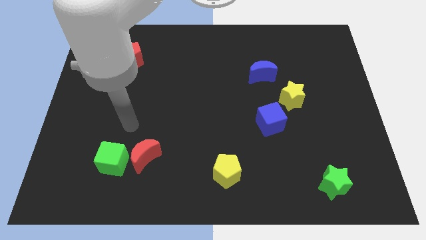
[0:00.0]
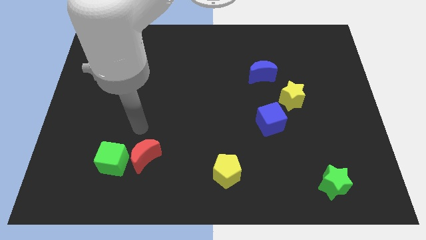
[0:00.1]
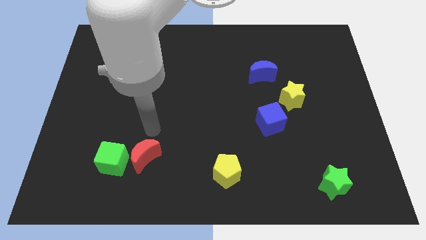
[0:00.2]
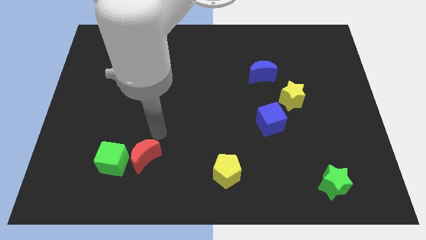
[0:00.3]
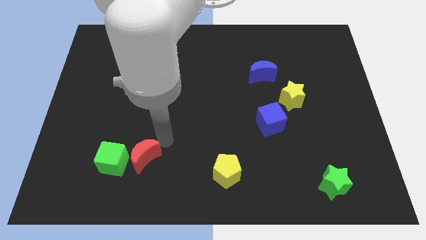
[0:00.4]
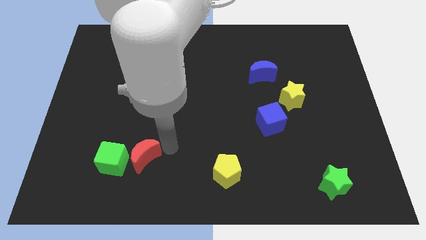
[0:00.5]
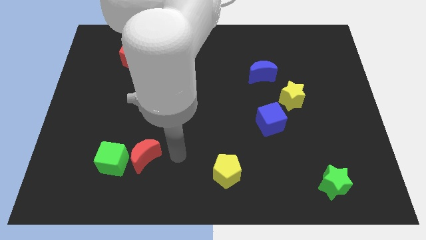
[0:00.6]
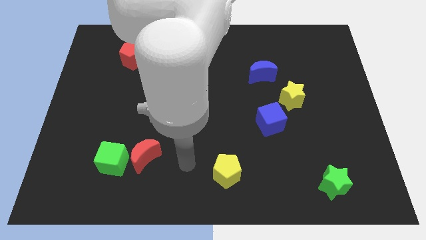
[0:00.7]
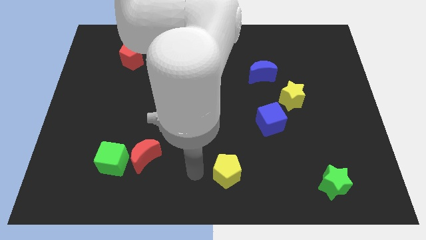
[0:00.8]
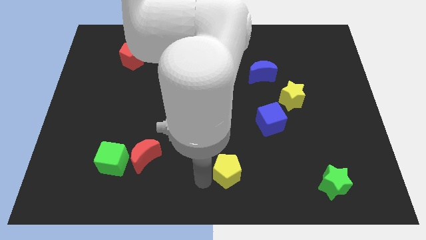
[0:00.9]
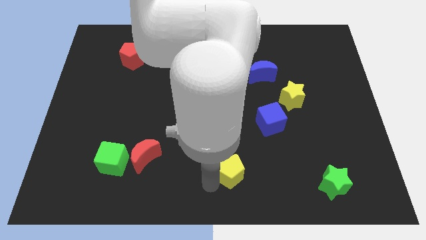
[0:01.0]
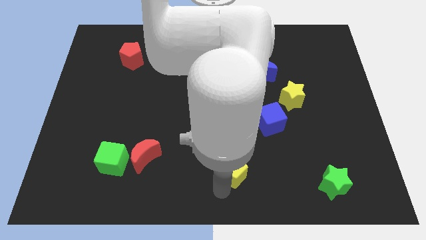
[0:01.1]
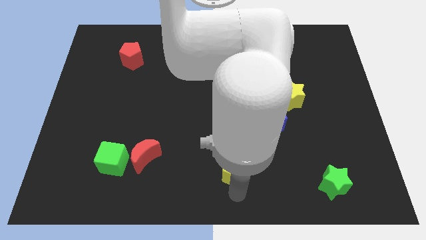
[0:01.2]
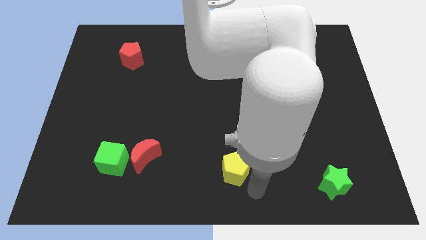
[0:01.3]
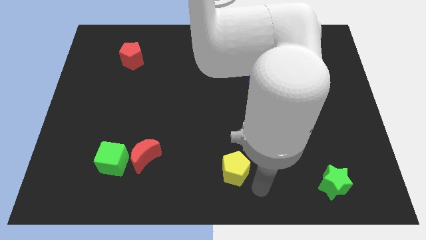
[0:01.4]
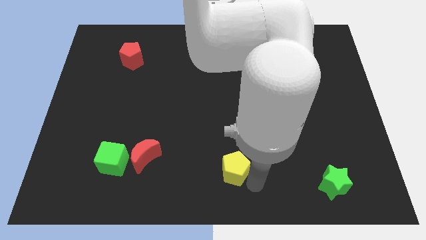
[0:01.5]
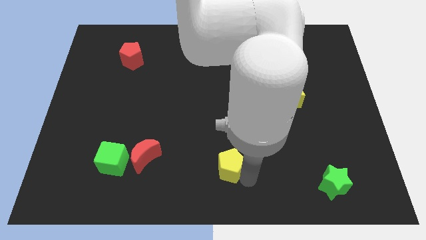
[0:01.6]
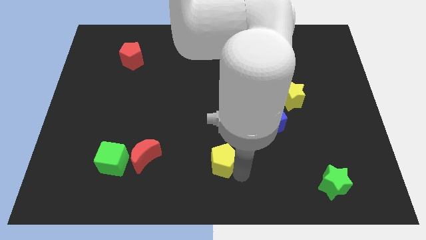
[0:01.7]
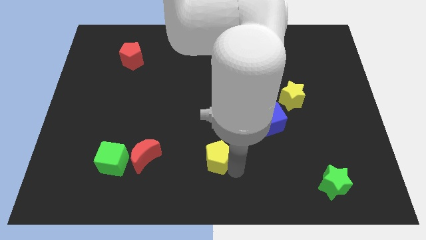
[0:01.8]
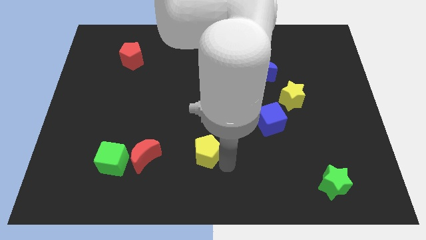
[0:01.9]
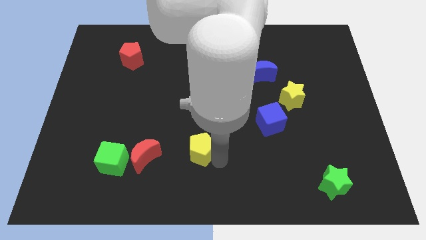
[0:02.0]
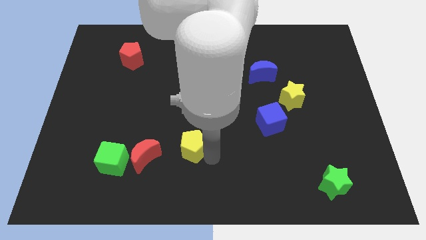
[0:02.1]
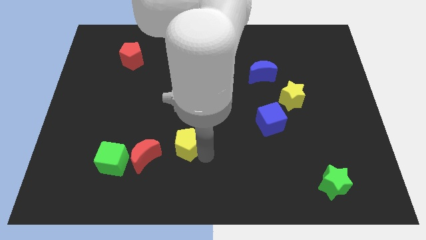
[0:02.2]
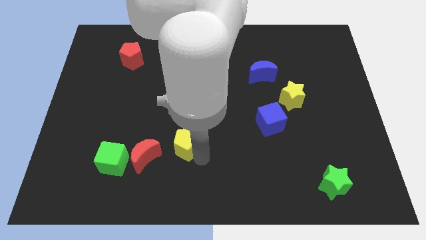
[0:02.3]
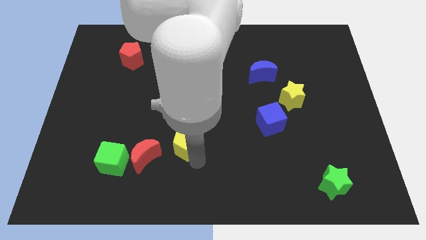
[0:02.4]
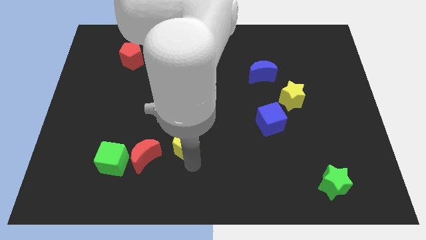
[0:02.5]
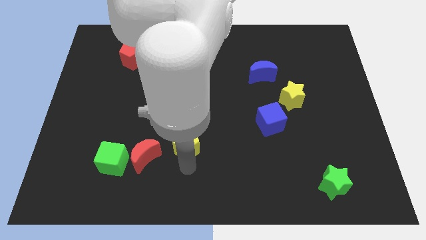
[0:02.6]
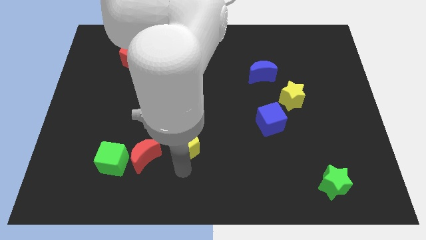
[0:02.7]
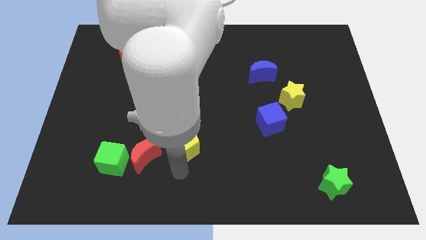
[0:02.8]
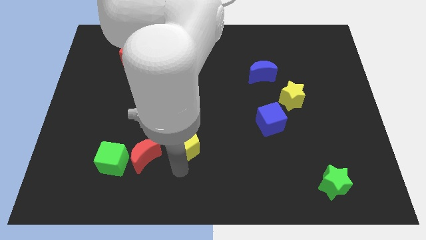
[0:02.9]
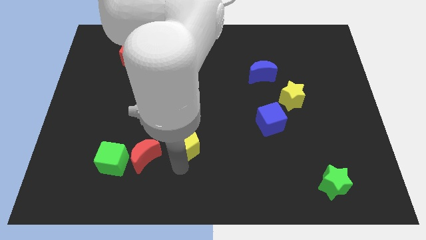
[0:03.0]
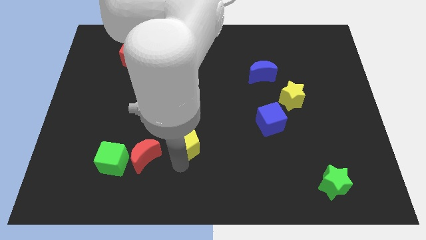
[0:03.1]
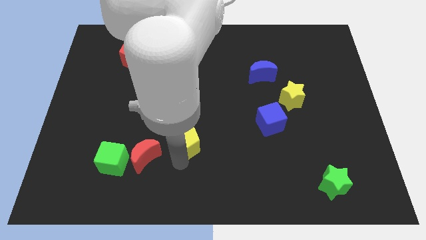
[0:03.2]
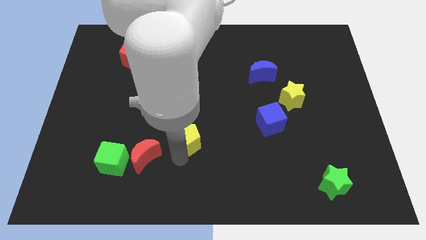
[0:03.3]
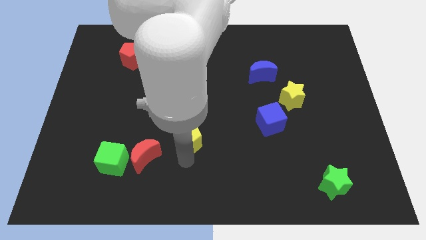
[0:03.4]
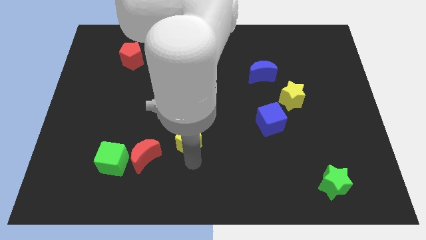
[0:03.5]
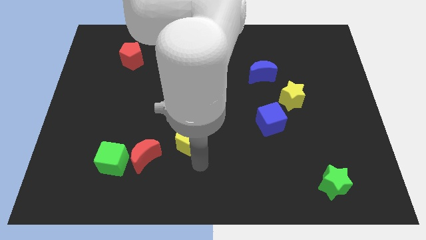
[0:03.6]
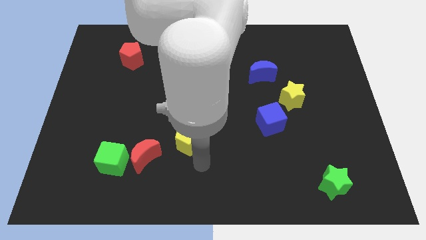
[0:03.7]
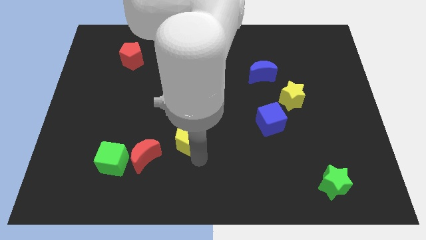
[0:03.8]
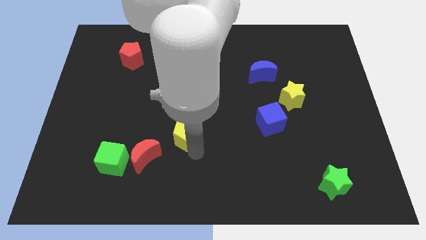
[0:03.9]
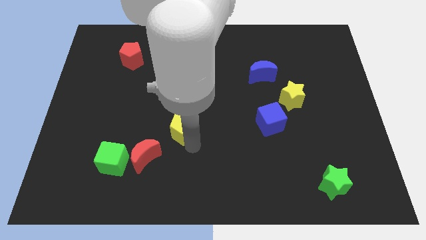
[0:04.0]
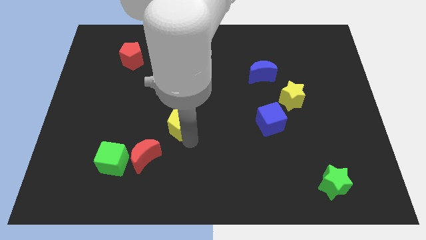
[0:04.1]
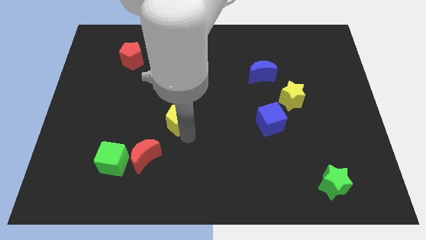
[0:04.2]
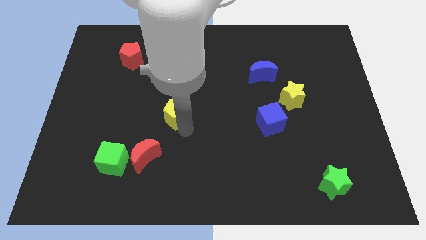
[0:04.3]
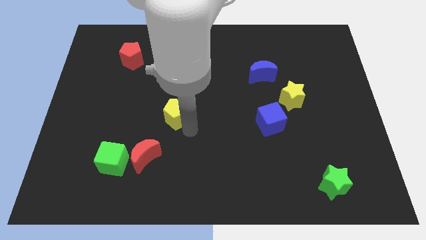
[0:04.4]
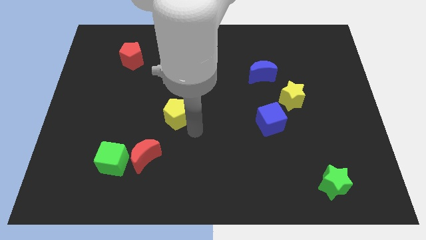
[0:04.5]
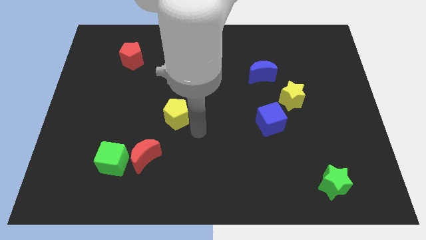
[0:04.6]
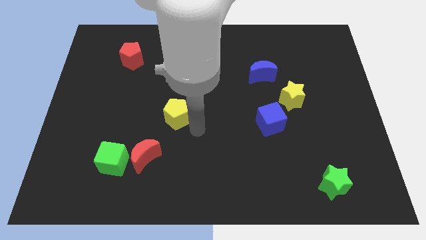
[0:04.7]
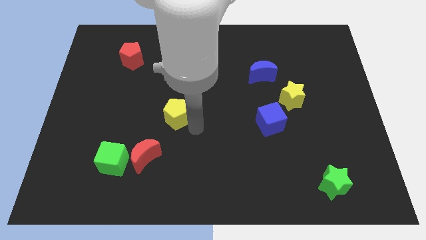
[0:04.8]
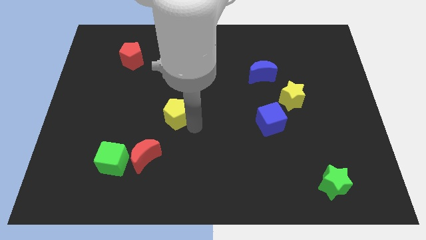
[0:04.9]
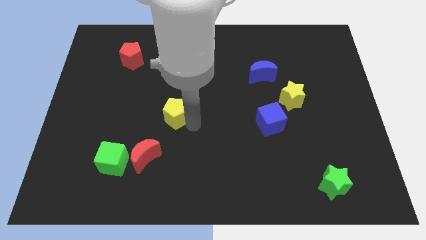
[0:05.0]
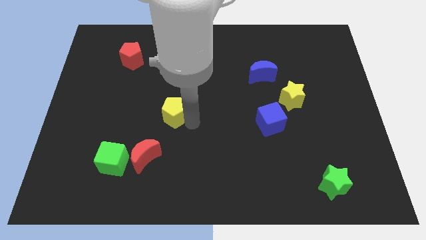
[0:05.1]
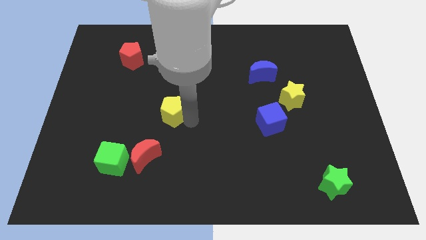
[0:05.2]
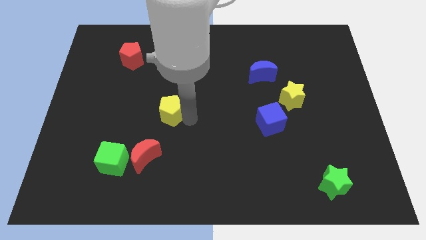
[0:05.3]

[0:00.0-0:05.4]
push the yellow pentagon up and to the left

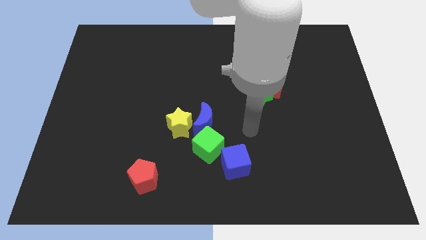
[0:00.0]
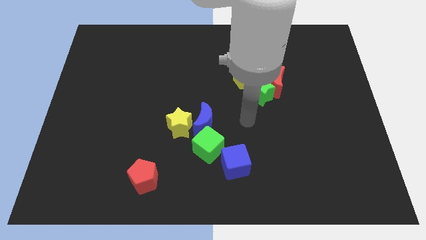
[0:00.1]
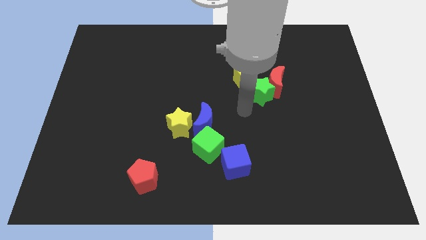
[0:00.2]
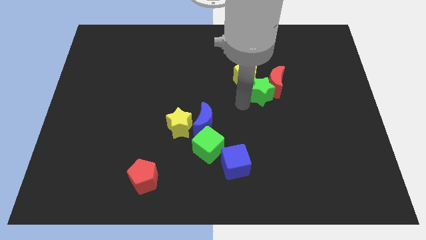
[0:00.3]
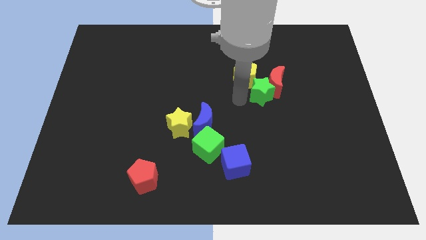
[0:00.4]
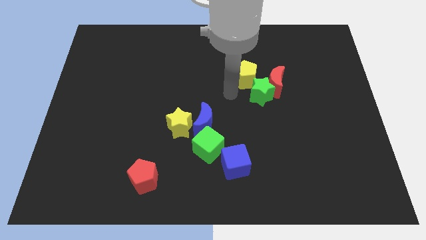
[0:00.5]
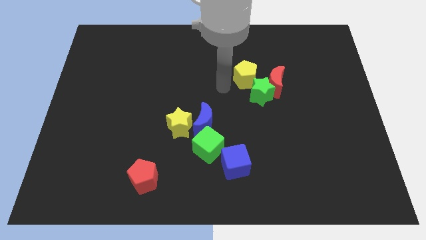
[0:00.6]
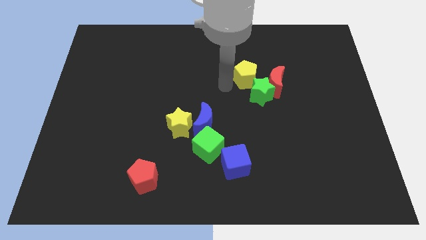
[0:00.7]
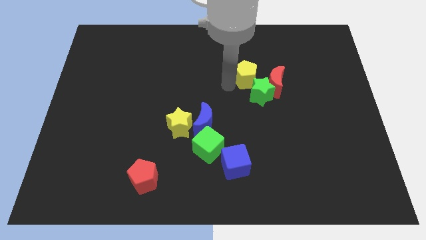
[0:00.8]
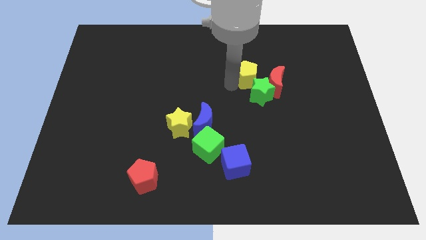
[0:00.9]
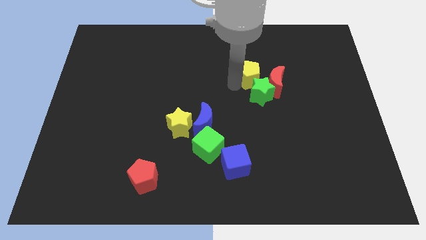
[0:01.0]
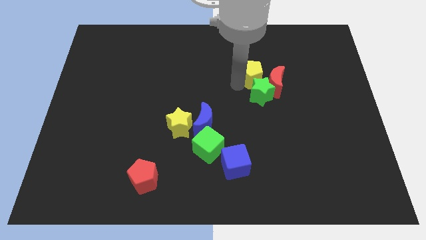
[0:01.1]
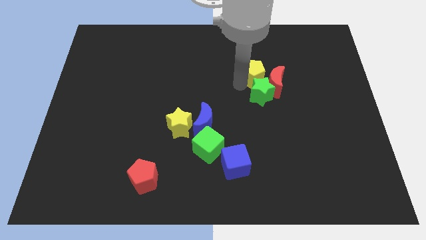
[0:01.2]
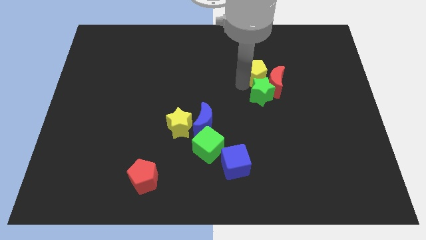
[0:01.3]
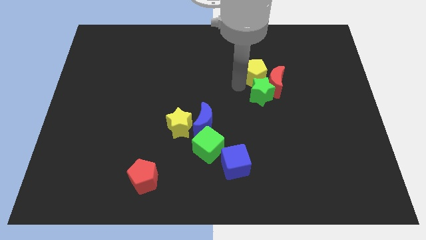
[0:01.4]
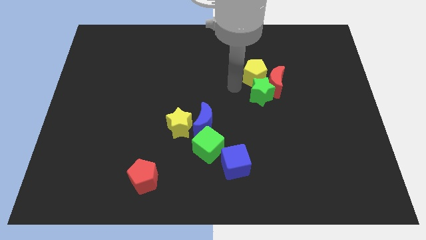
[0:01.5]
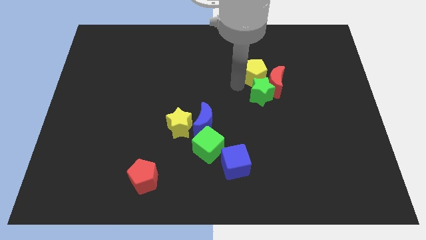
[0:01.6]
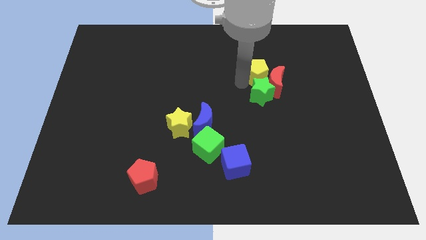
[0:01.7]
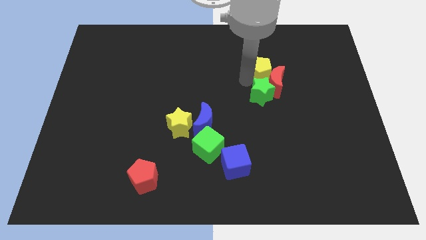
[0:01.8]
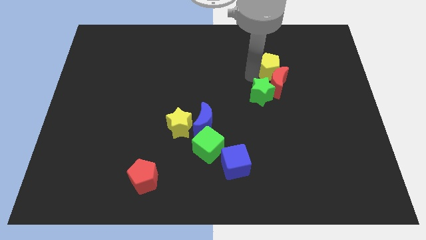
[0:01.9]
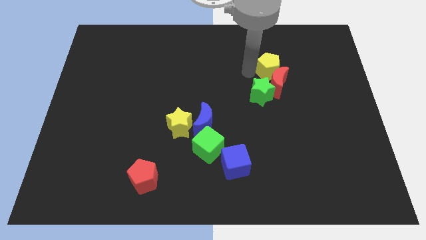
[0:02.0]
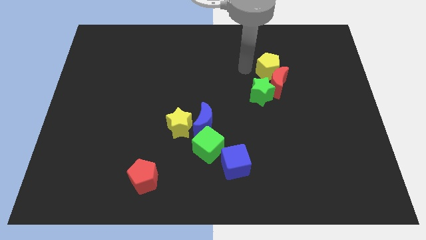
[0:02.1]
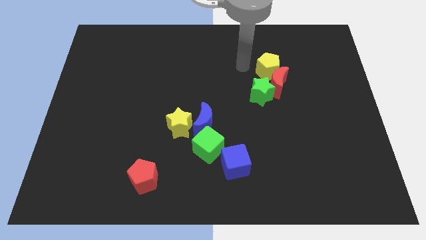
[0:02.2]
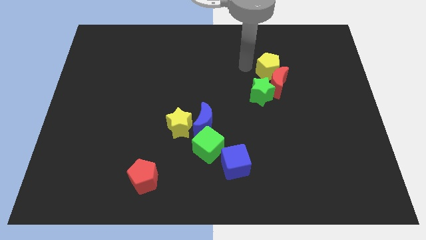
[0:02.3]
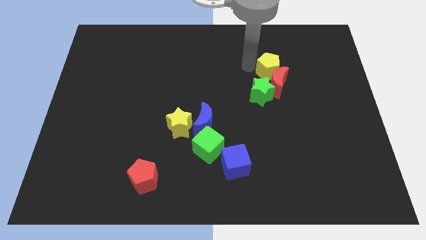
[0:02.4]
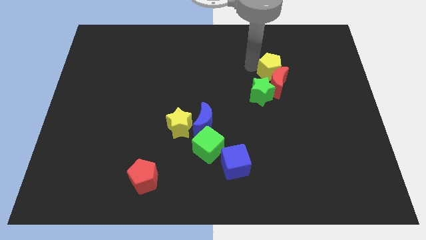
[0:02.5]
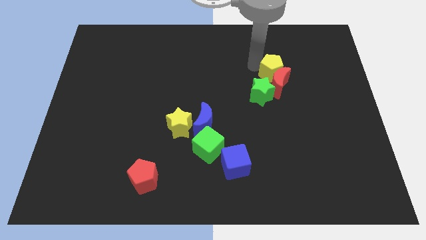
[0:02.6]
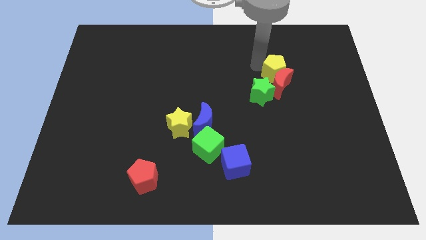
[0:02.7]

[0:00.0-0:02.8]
move the yellow pentagon right a bit

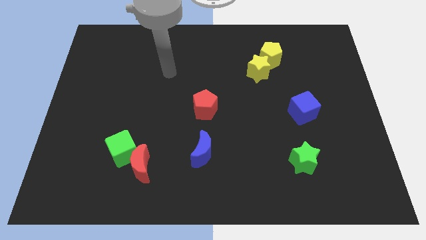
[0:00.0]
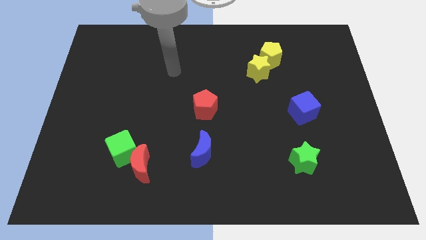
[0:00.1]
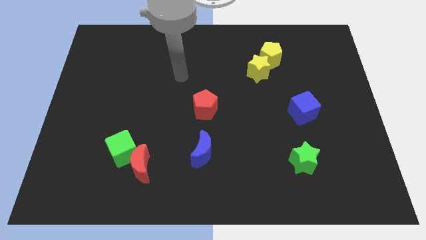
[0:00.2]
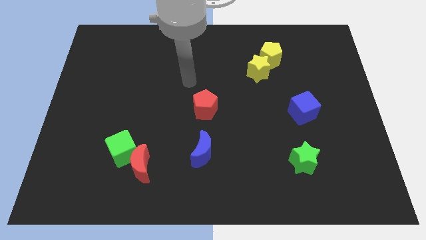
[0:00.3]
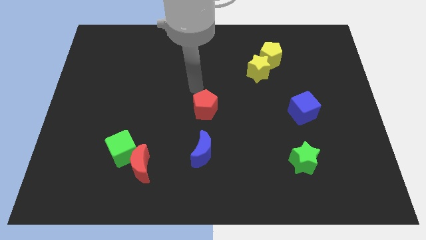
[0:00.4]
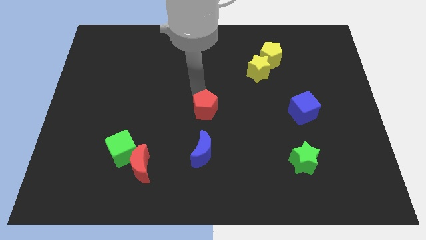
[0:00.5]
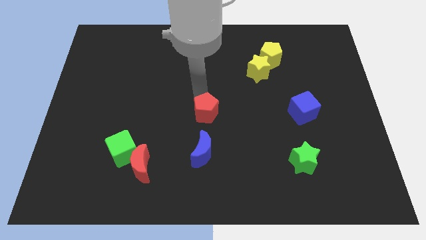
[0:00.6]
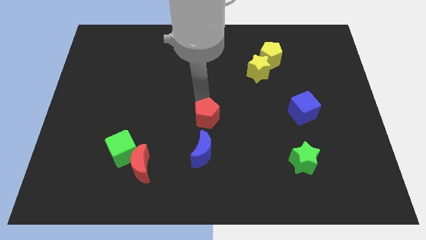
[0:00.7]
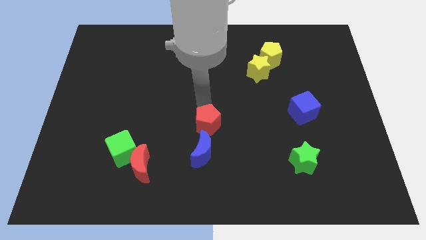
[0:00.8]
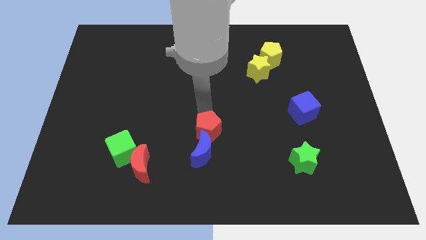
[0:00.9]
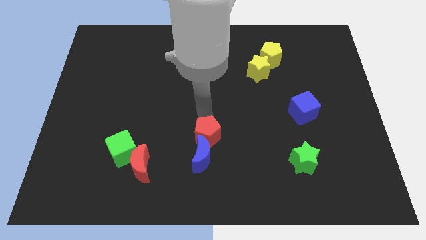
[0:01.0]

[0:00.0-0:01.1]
move the red pentagon down slightly
